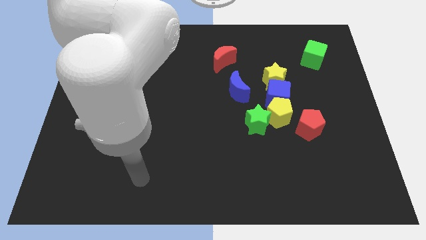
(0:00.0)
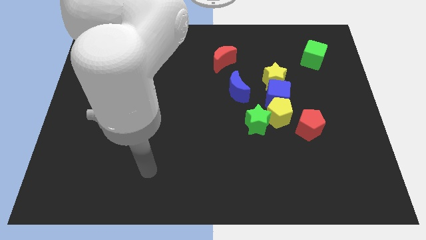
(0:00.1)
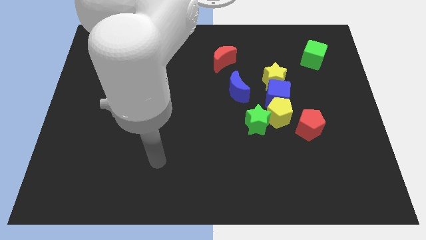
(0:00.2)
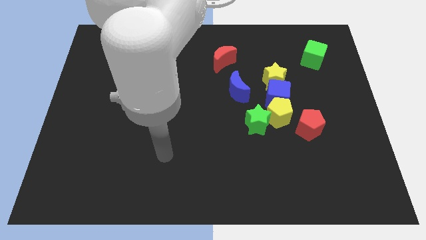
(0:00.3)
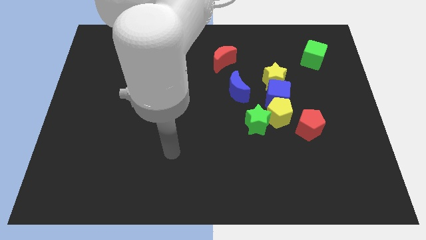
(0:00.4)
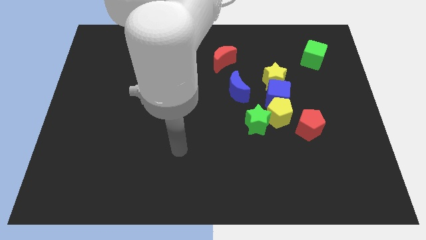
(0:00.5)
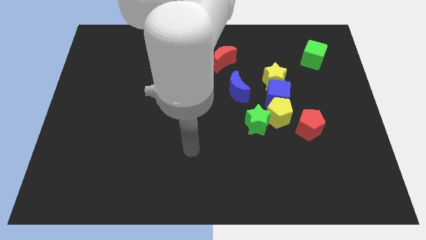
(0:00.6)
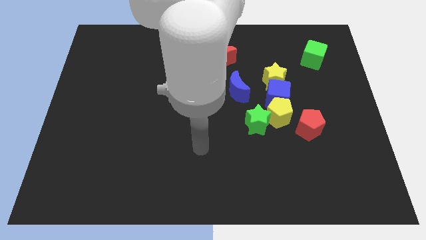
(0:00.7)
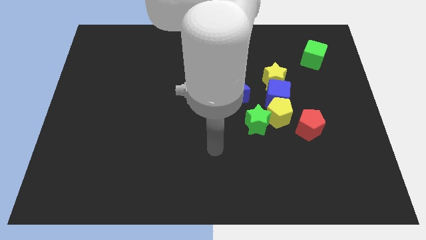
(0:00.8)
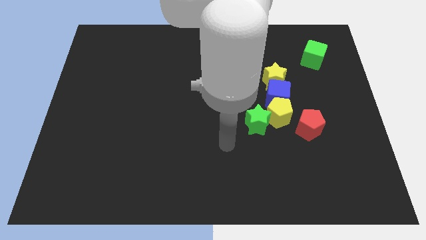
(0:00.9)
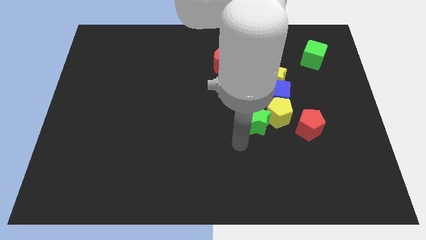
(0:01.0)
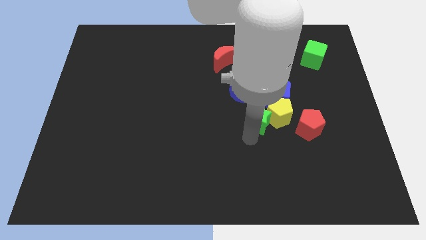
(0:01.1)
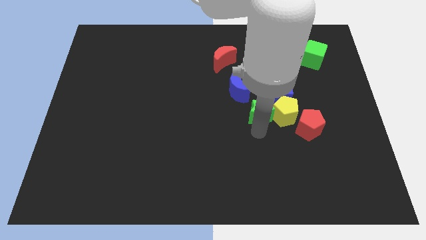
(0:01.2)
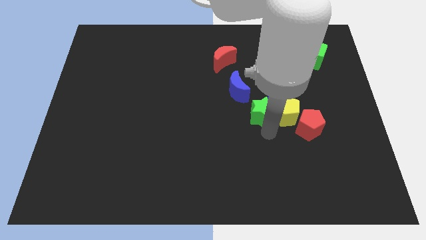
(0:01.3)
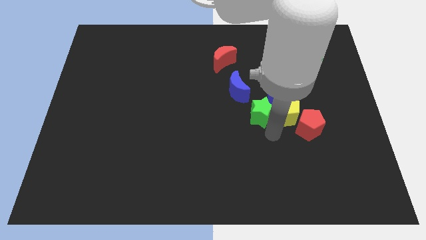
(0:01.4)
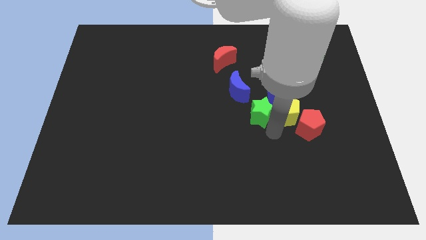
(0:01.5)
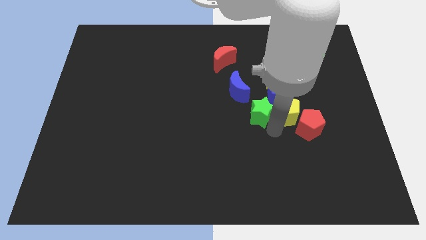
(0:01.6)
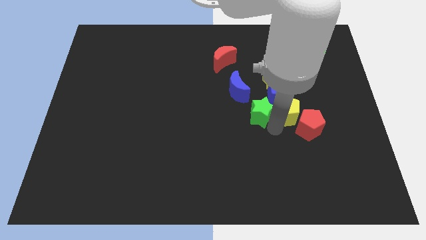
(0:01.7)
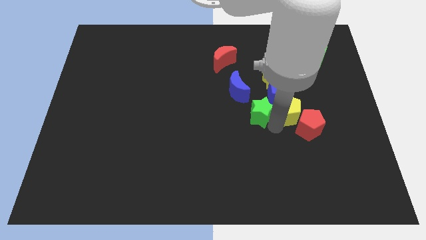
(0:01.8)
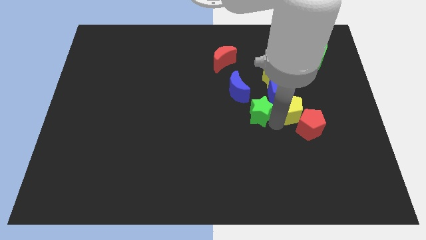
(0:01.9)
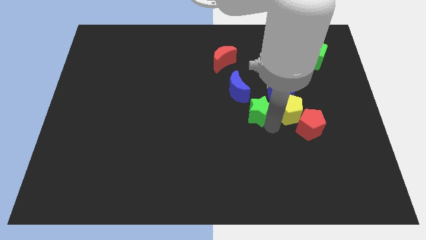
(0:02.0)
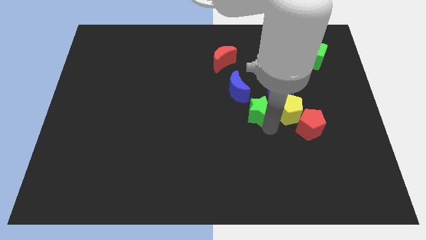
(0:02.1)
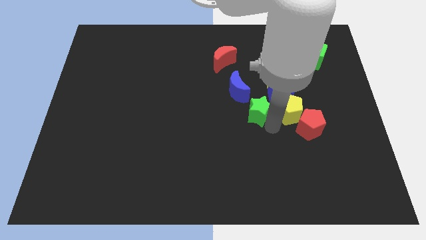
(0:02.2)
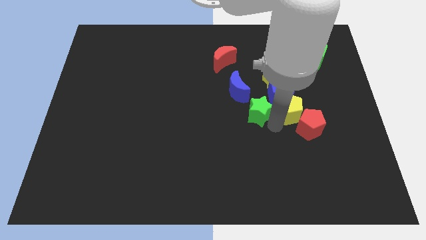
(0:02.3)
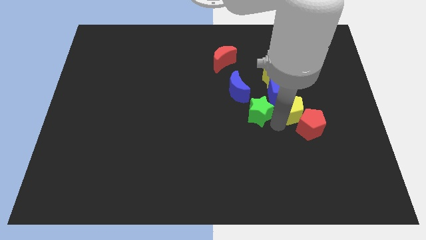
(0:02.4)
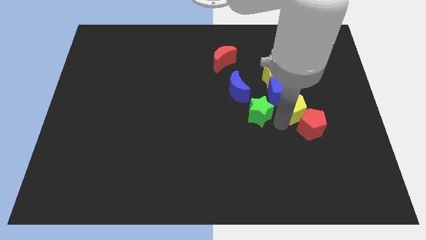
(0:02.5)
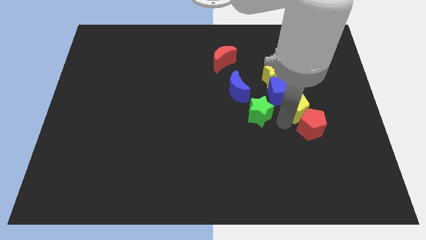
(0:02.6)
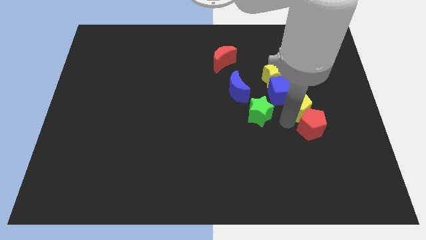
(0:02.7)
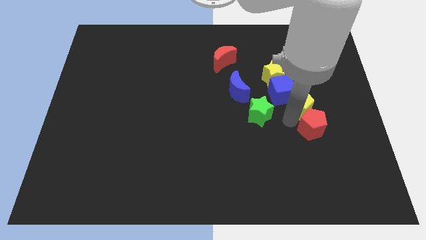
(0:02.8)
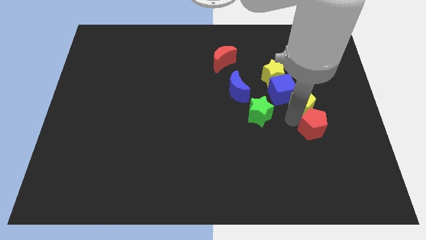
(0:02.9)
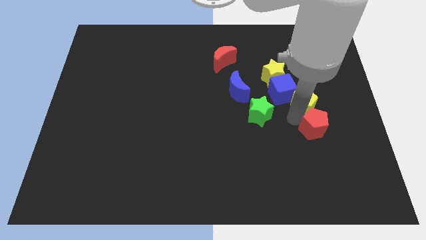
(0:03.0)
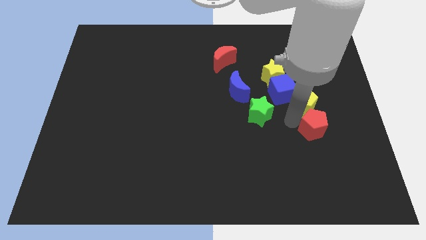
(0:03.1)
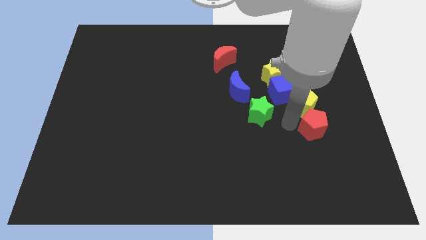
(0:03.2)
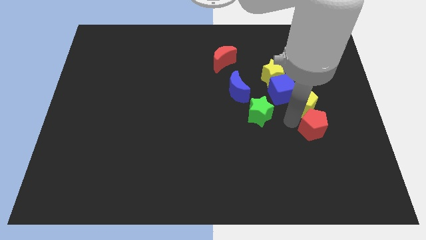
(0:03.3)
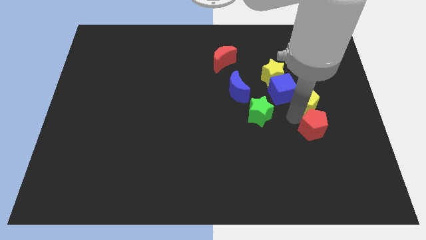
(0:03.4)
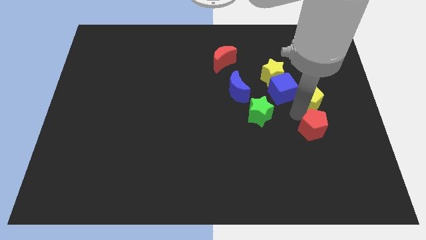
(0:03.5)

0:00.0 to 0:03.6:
slightly push the yellow pentagon up and right diagonally

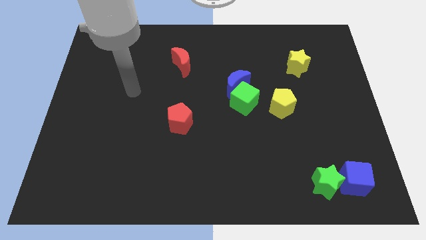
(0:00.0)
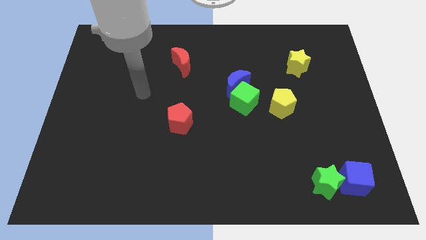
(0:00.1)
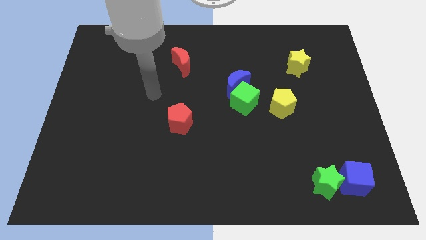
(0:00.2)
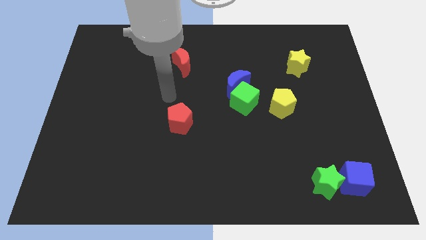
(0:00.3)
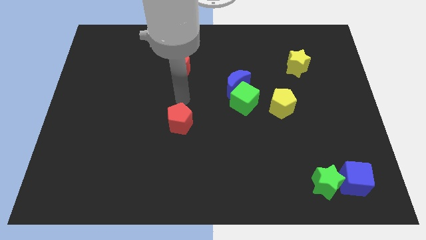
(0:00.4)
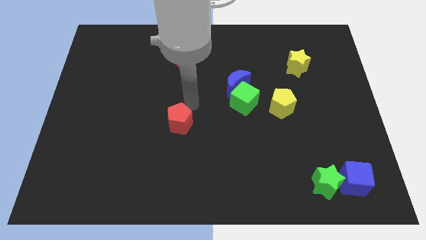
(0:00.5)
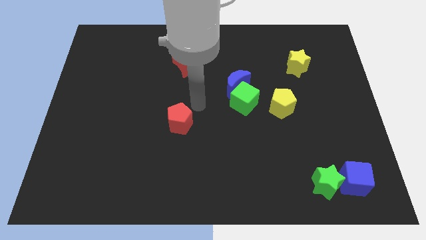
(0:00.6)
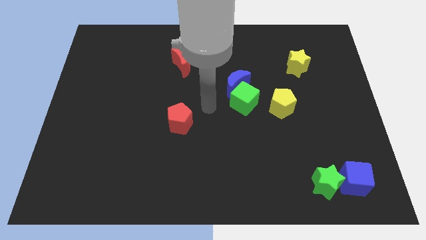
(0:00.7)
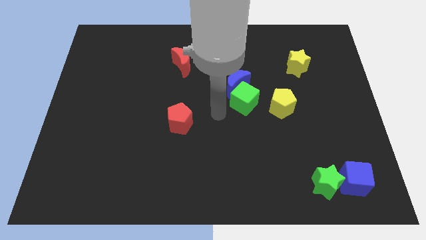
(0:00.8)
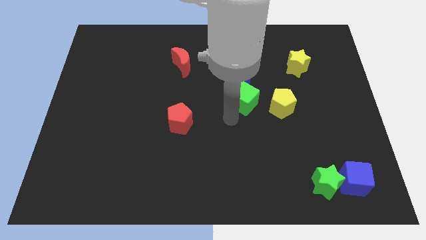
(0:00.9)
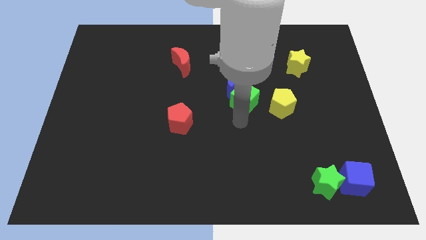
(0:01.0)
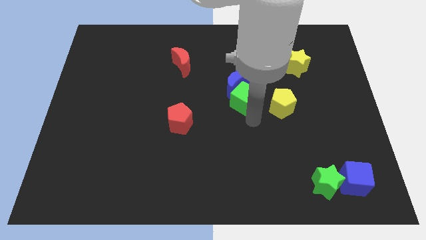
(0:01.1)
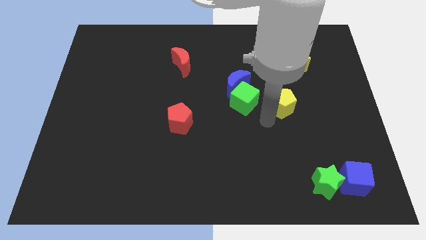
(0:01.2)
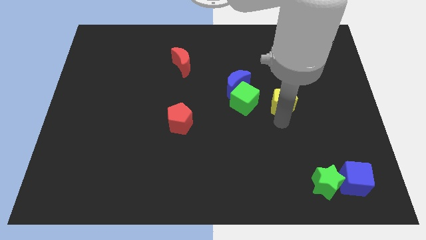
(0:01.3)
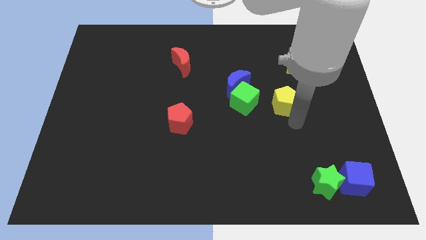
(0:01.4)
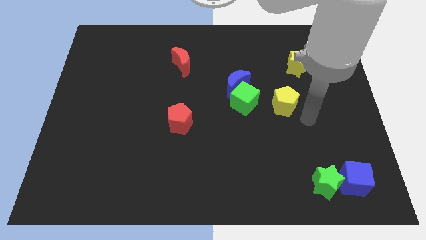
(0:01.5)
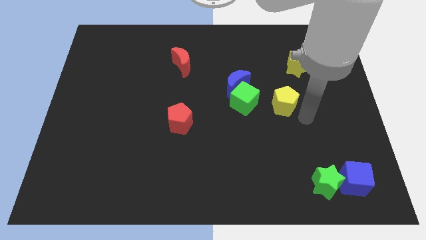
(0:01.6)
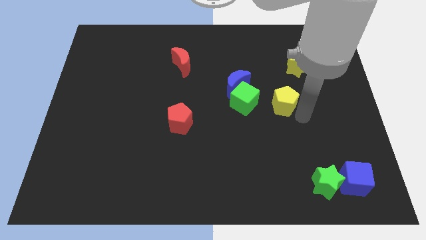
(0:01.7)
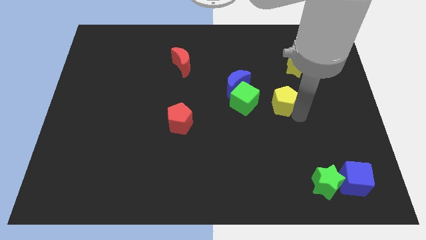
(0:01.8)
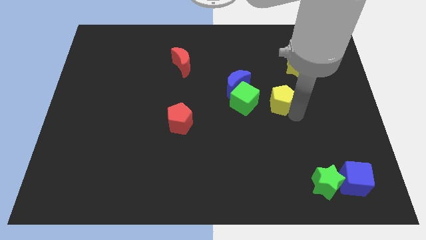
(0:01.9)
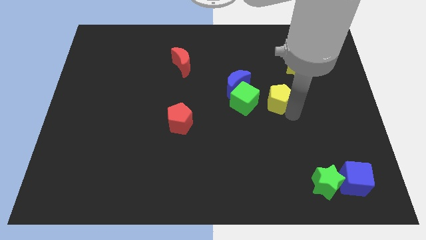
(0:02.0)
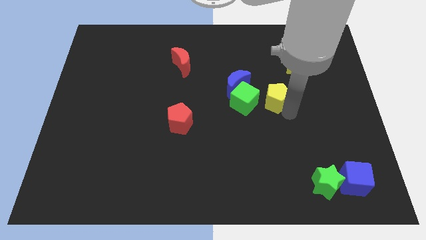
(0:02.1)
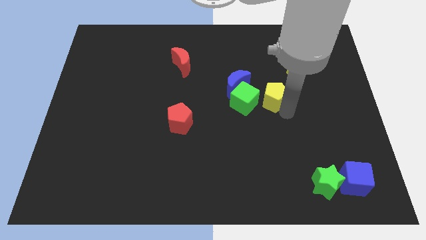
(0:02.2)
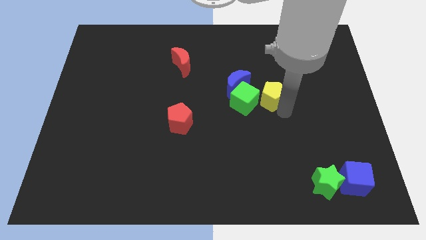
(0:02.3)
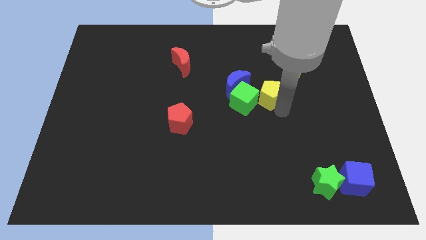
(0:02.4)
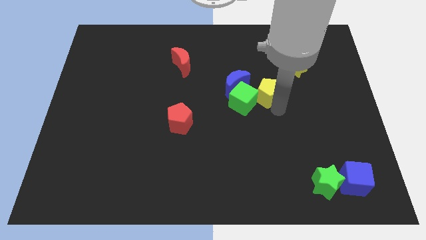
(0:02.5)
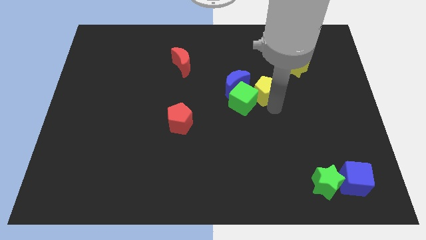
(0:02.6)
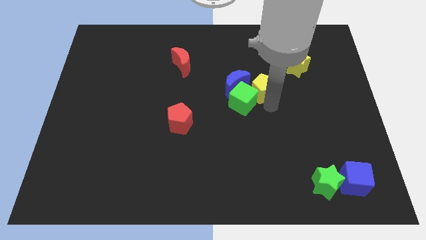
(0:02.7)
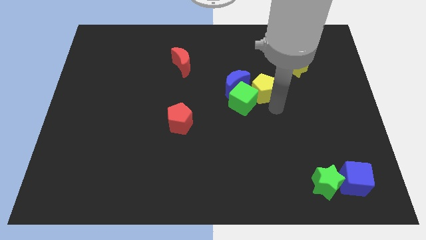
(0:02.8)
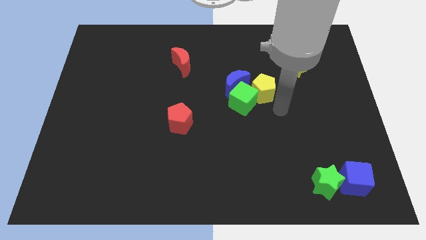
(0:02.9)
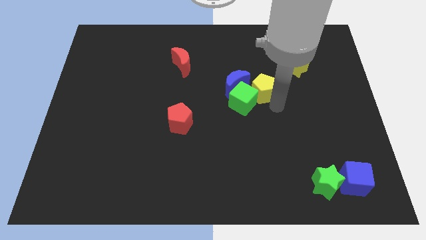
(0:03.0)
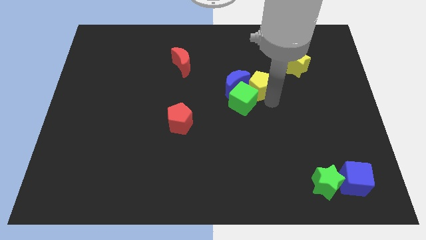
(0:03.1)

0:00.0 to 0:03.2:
move the yellow pentagon diagonally up and left a little

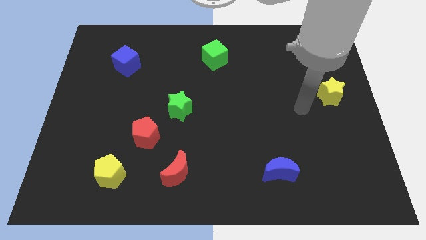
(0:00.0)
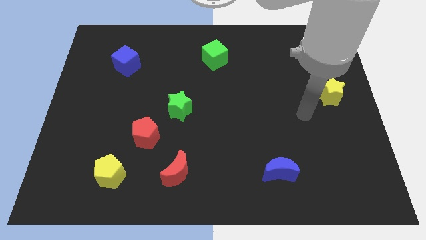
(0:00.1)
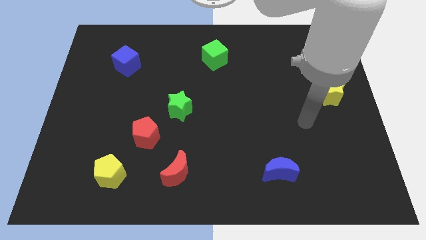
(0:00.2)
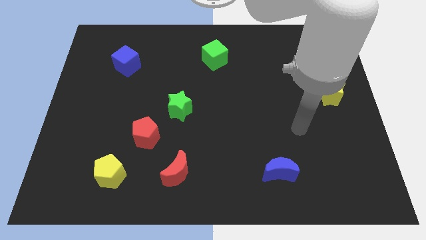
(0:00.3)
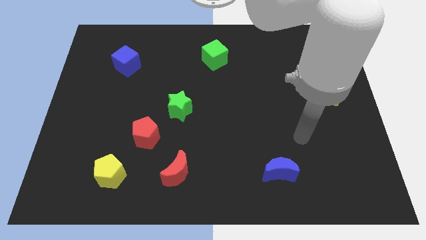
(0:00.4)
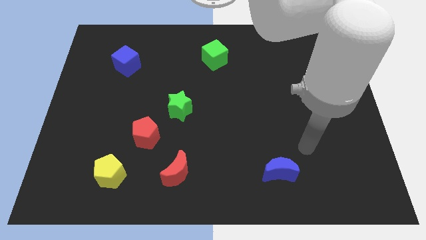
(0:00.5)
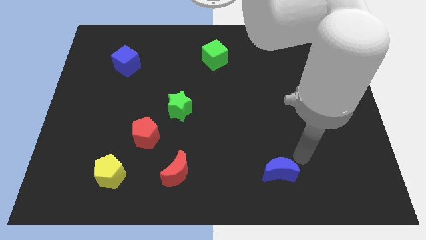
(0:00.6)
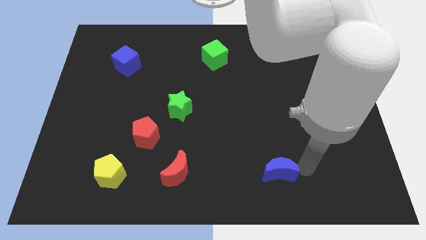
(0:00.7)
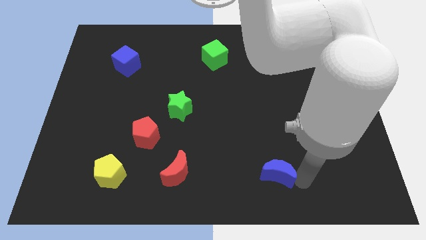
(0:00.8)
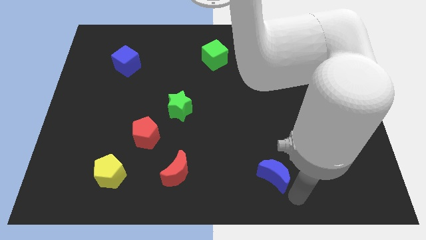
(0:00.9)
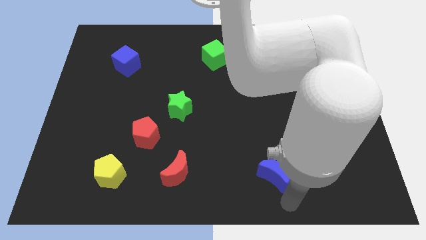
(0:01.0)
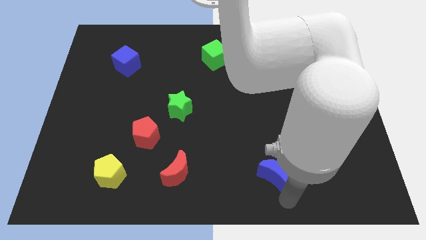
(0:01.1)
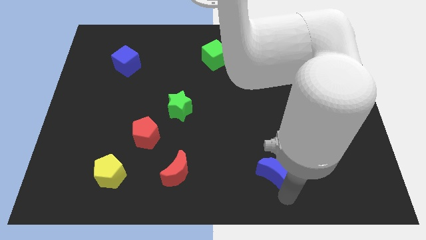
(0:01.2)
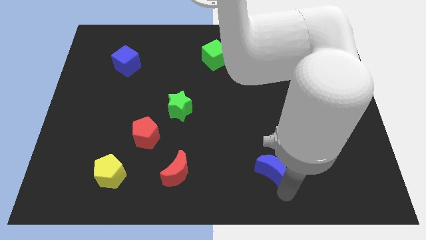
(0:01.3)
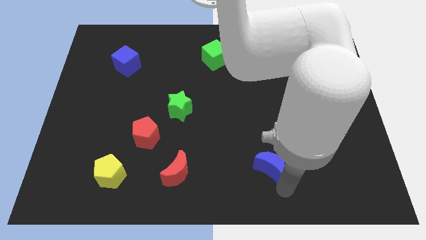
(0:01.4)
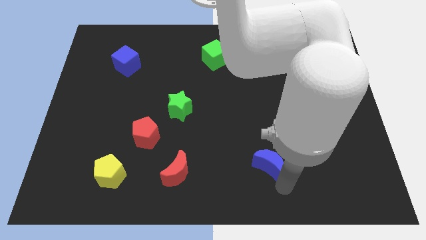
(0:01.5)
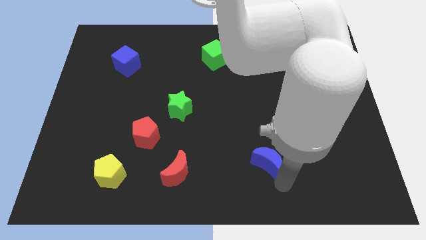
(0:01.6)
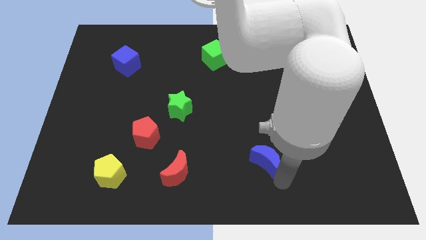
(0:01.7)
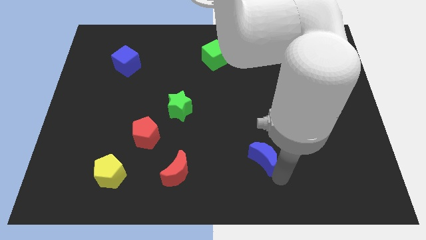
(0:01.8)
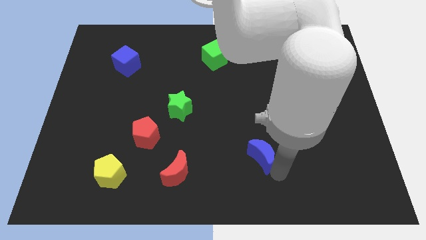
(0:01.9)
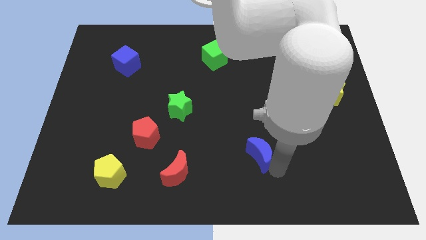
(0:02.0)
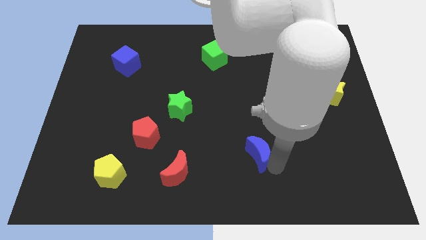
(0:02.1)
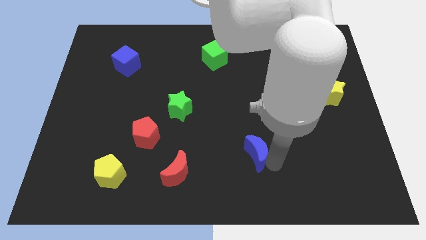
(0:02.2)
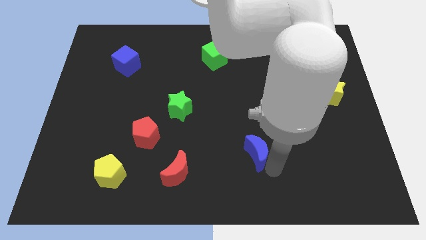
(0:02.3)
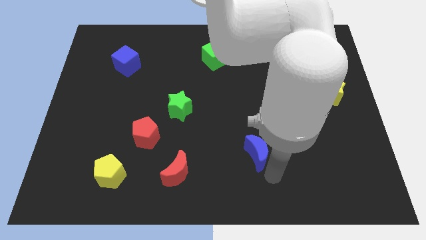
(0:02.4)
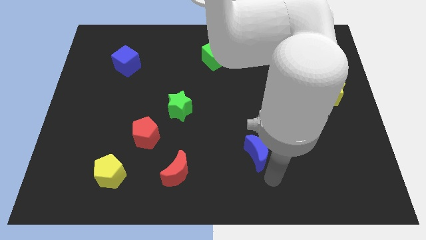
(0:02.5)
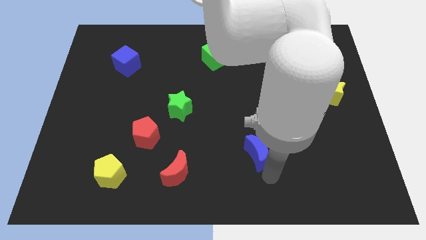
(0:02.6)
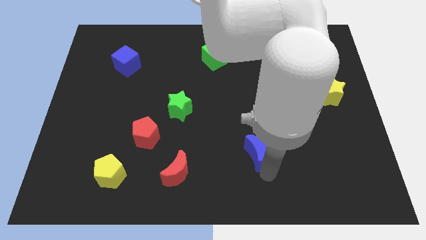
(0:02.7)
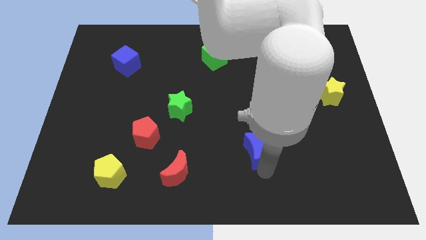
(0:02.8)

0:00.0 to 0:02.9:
move the blue moon slightly diagonally up and left
